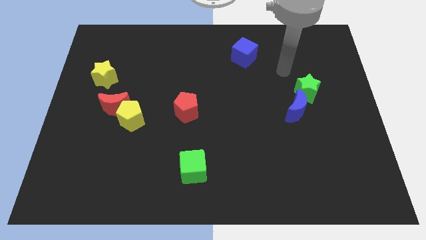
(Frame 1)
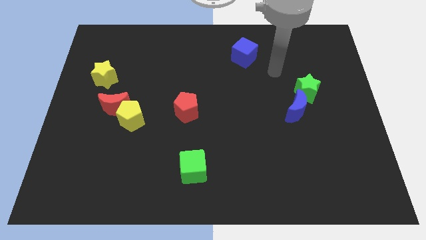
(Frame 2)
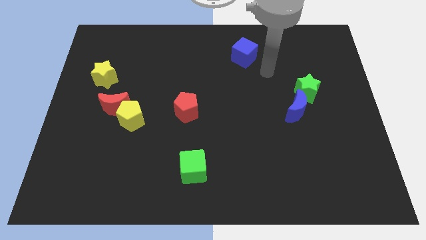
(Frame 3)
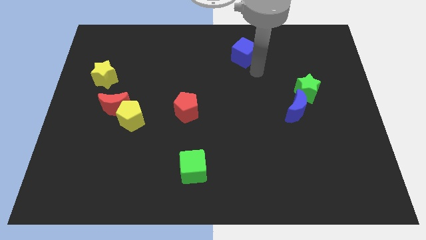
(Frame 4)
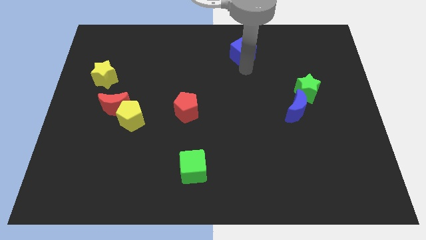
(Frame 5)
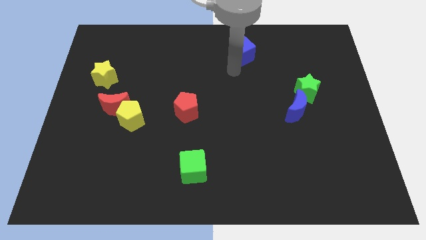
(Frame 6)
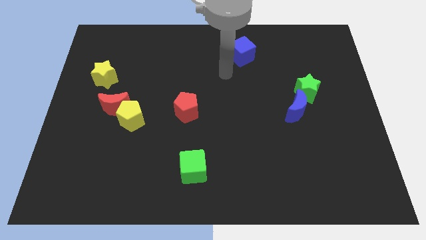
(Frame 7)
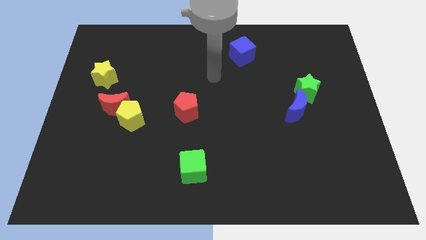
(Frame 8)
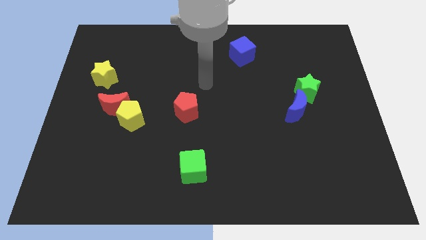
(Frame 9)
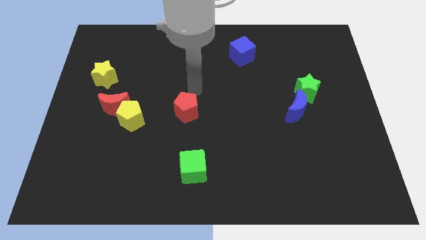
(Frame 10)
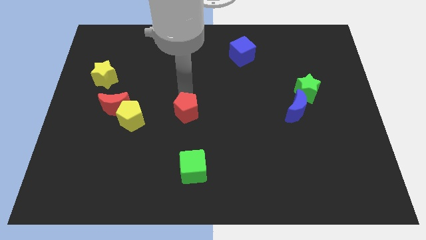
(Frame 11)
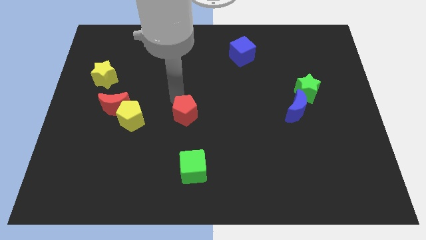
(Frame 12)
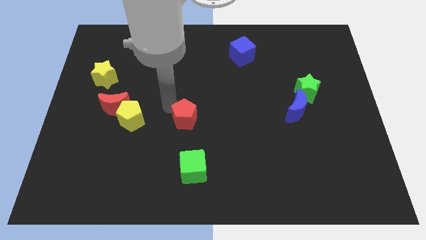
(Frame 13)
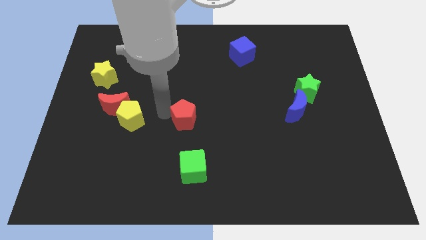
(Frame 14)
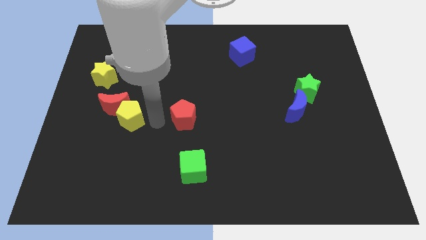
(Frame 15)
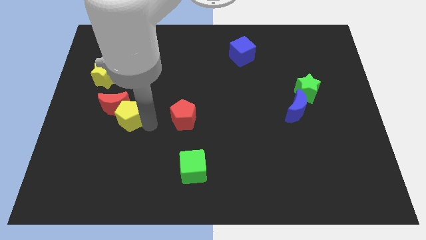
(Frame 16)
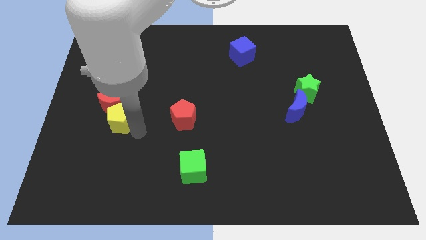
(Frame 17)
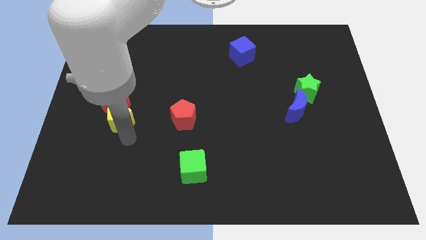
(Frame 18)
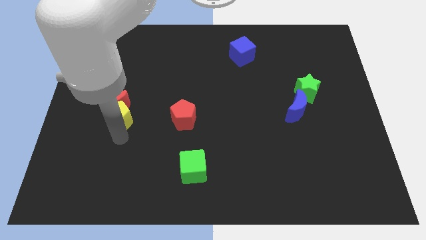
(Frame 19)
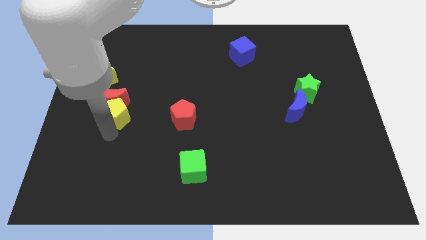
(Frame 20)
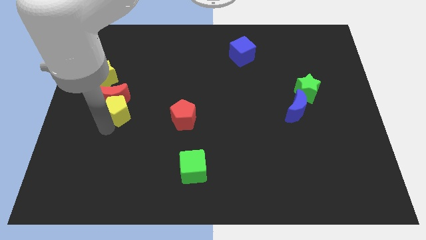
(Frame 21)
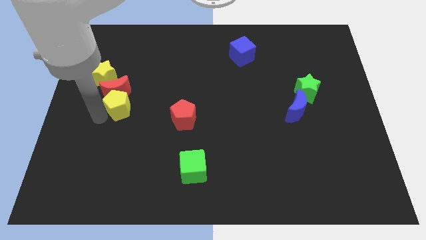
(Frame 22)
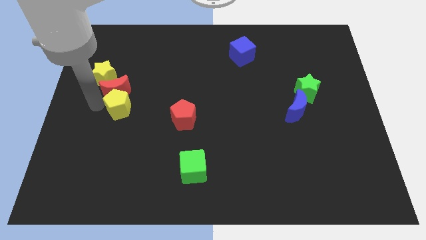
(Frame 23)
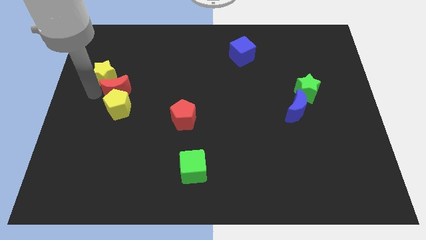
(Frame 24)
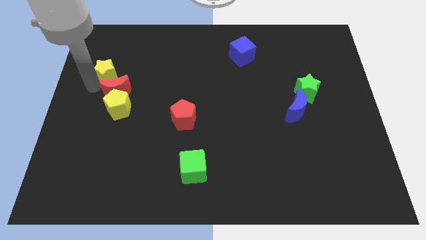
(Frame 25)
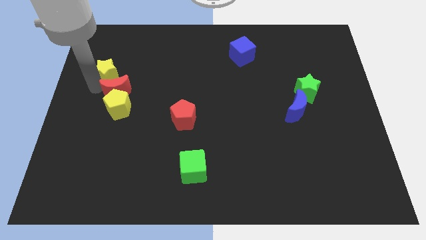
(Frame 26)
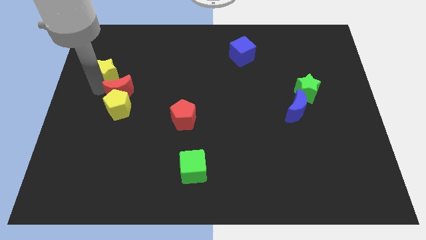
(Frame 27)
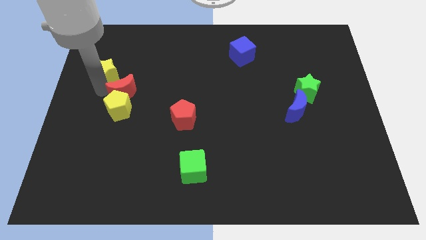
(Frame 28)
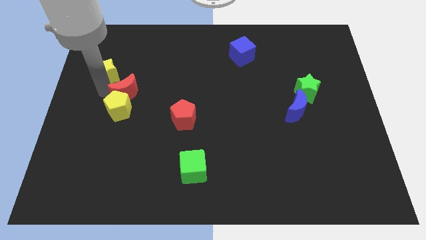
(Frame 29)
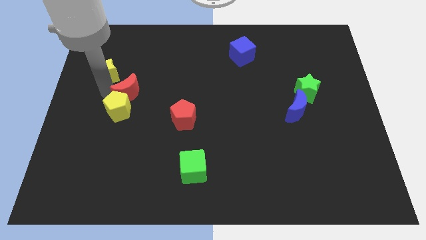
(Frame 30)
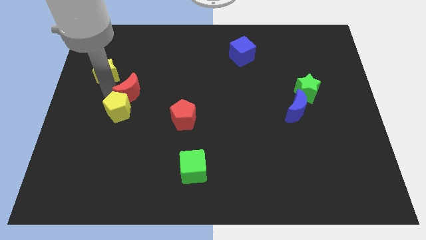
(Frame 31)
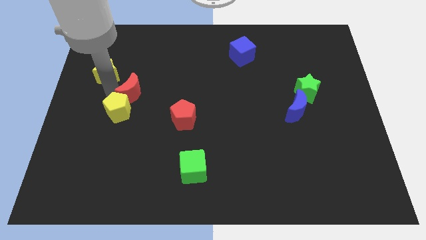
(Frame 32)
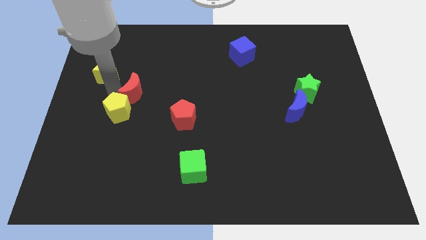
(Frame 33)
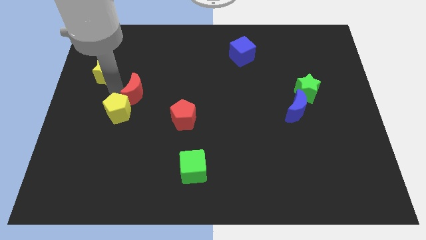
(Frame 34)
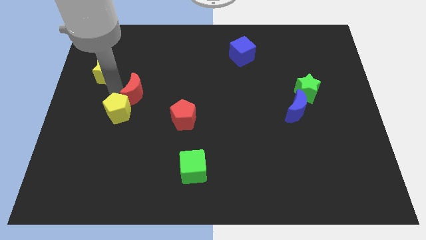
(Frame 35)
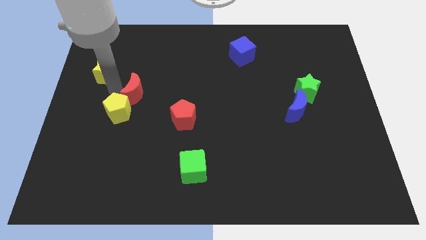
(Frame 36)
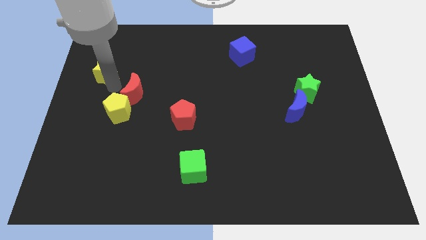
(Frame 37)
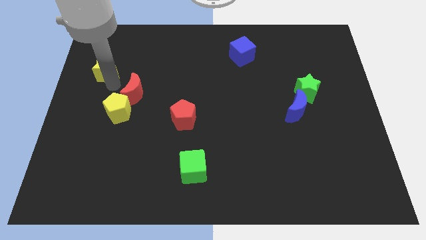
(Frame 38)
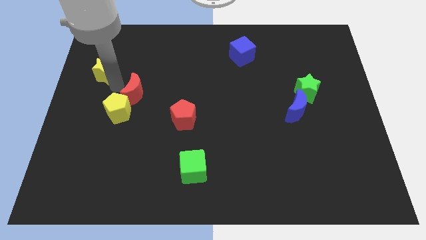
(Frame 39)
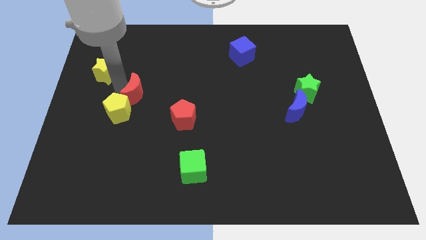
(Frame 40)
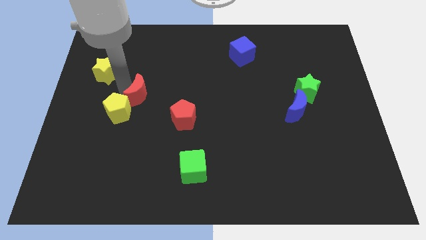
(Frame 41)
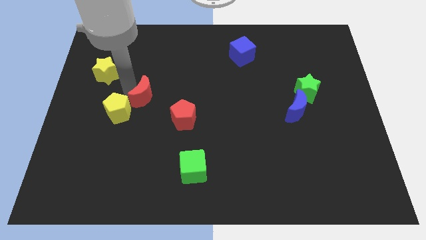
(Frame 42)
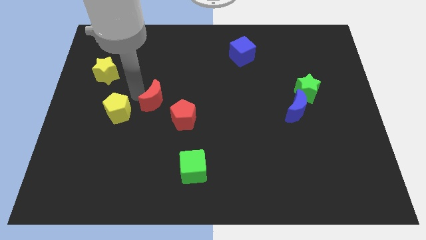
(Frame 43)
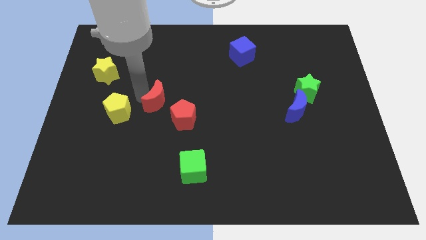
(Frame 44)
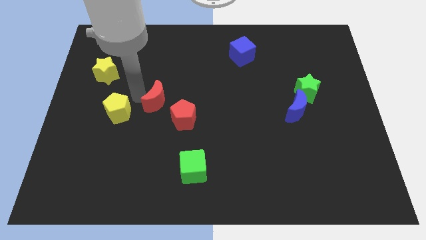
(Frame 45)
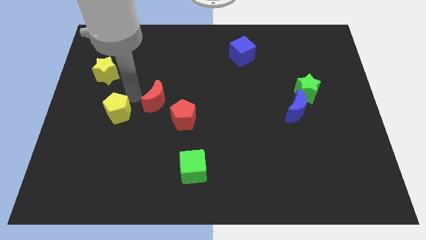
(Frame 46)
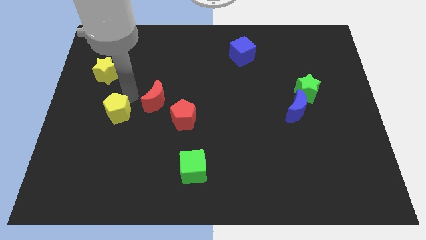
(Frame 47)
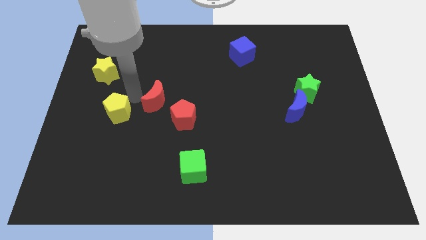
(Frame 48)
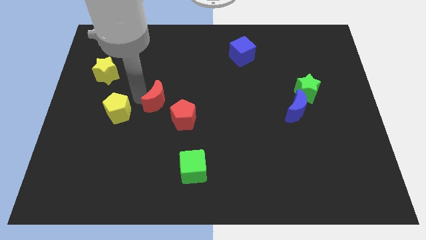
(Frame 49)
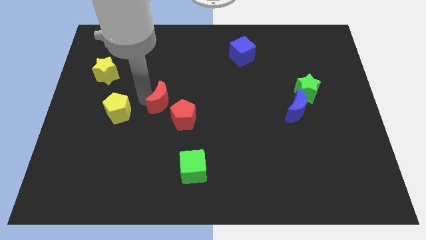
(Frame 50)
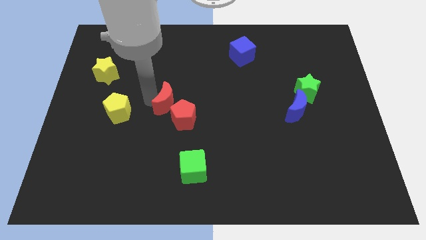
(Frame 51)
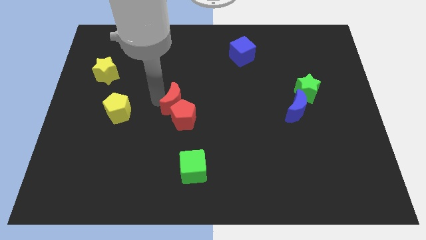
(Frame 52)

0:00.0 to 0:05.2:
move the red moon next to the red pentagon

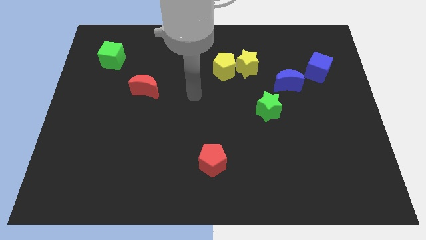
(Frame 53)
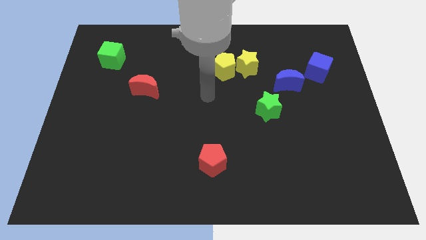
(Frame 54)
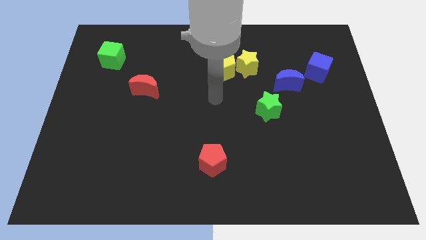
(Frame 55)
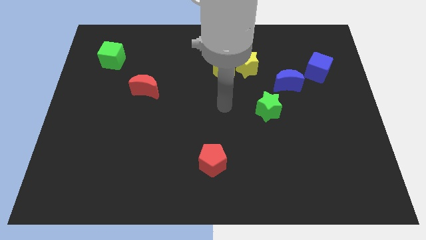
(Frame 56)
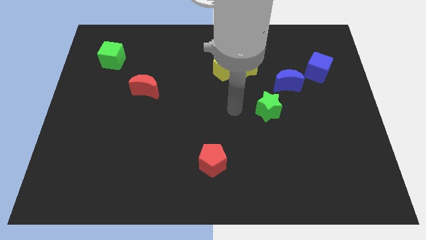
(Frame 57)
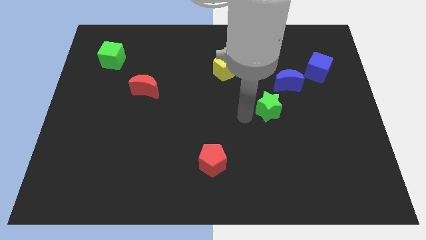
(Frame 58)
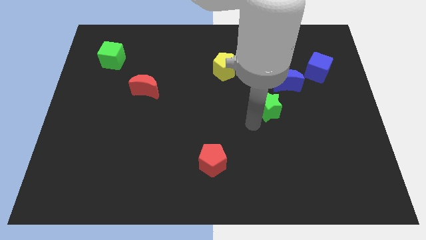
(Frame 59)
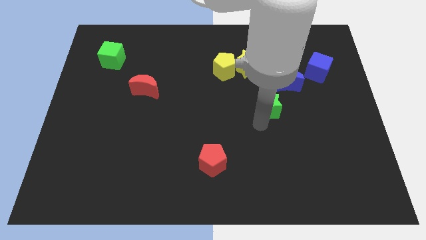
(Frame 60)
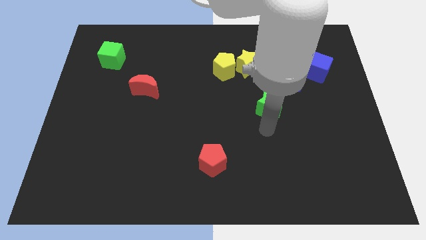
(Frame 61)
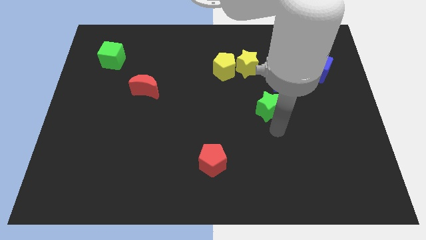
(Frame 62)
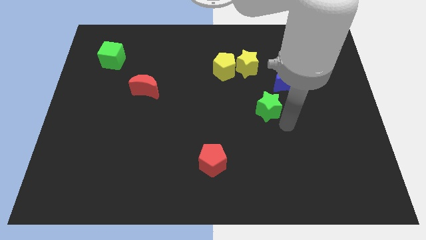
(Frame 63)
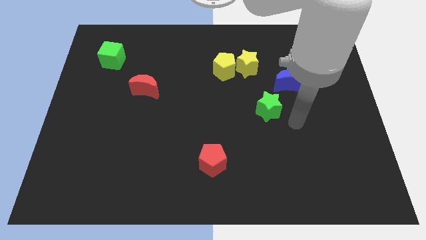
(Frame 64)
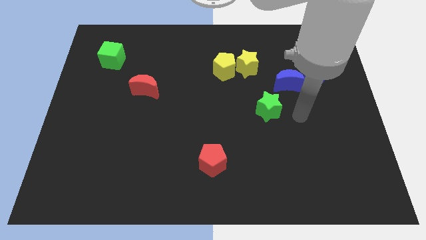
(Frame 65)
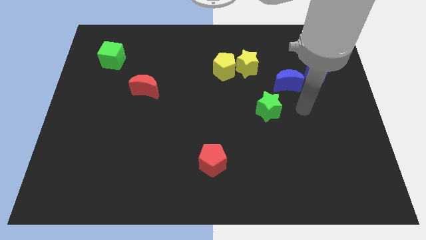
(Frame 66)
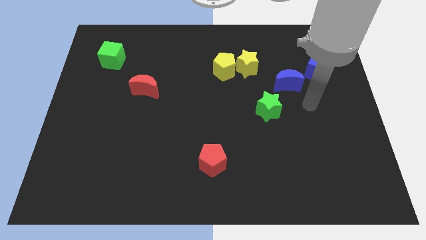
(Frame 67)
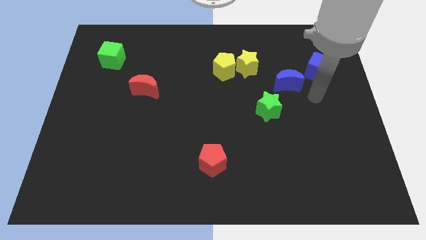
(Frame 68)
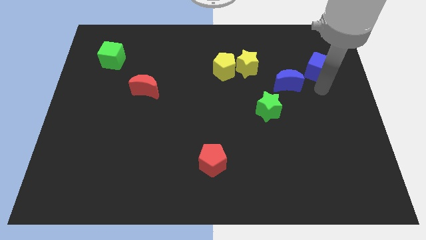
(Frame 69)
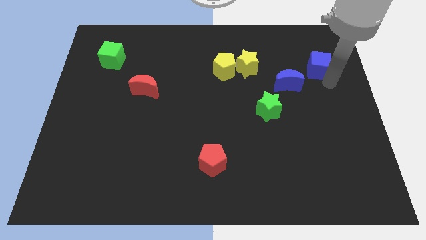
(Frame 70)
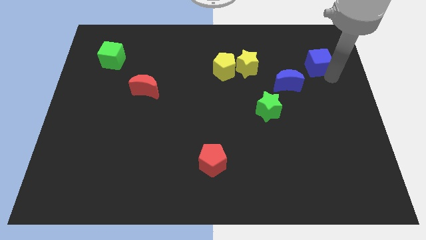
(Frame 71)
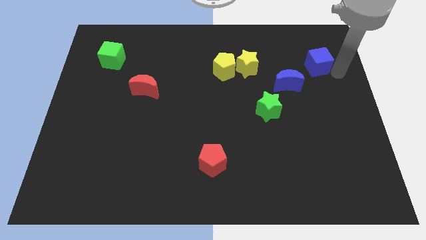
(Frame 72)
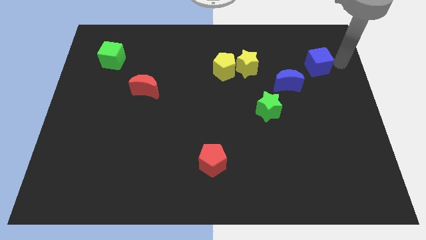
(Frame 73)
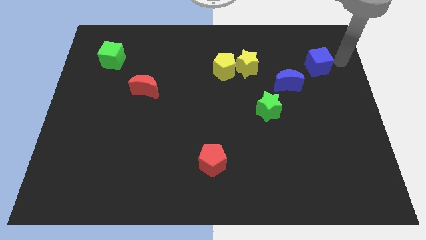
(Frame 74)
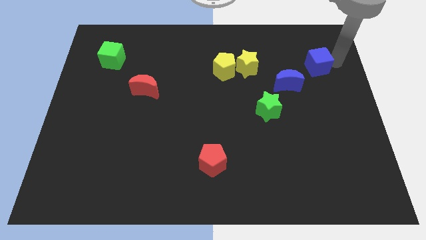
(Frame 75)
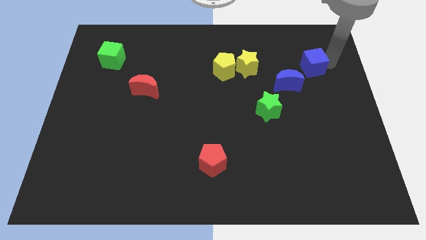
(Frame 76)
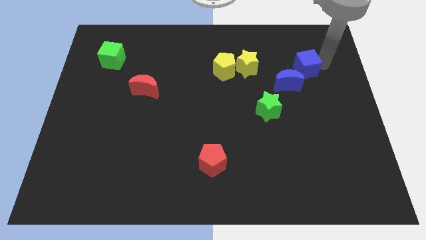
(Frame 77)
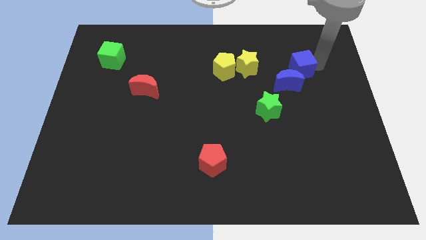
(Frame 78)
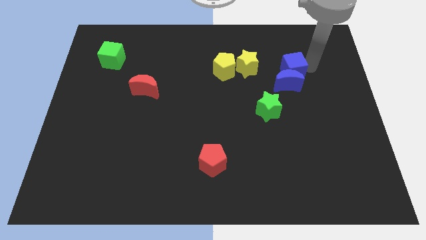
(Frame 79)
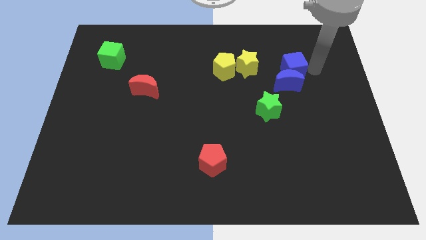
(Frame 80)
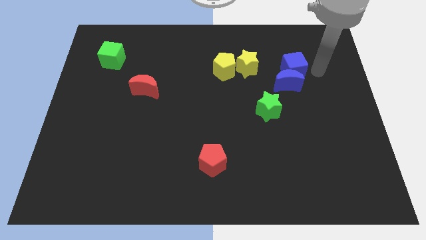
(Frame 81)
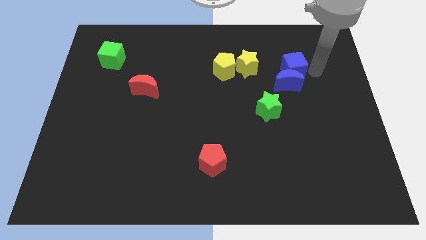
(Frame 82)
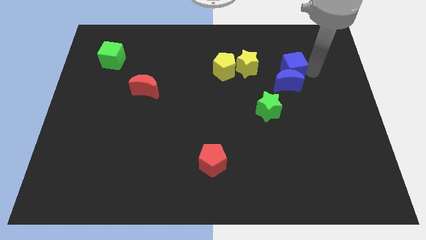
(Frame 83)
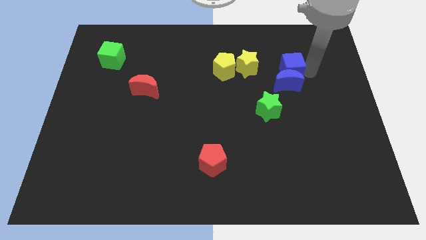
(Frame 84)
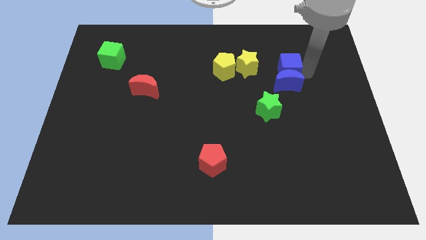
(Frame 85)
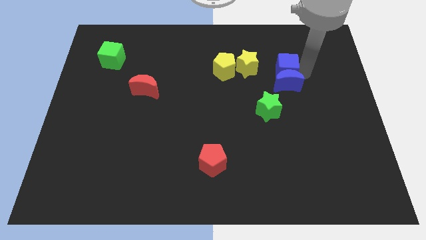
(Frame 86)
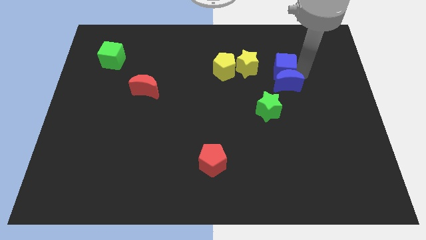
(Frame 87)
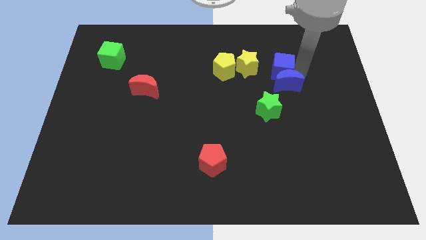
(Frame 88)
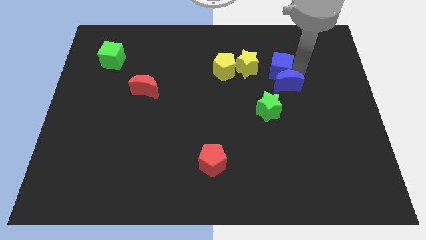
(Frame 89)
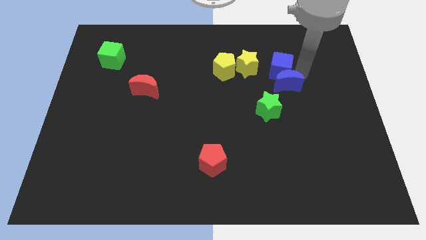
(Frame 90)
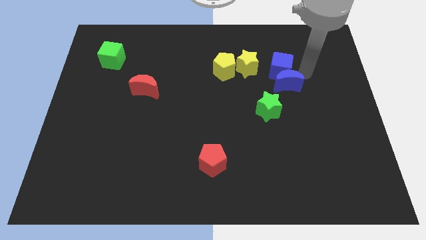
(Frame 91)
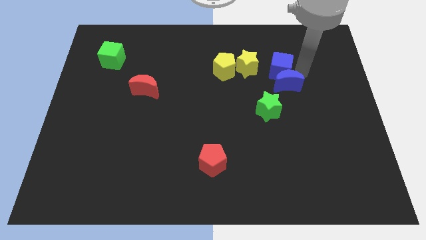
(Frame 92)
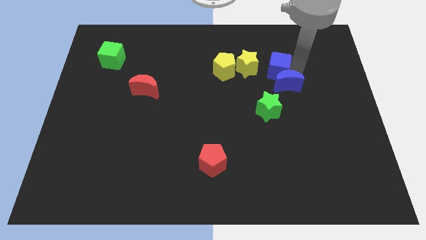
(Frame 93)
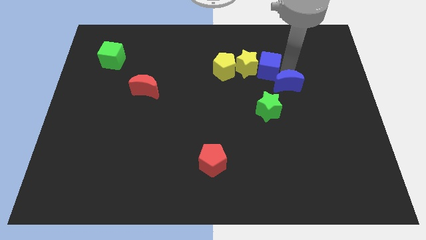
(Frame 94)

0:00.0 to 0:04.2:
push the blue cube to the yellow star
